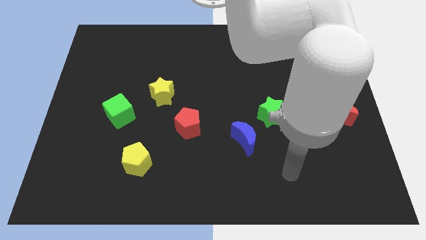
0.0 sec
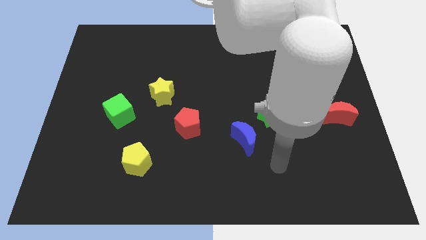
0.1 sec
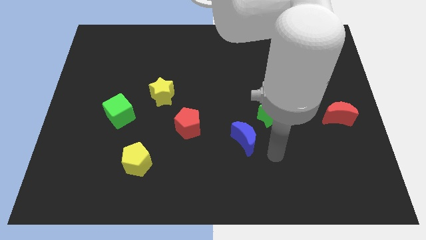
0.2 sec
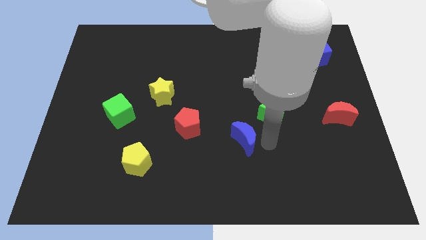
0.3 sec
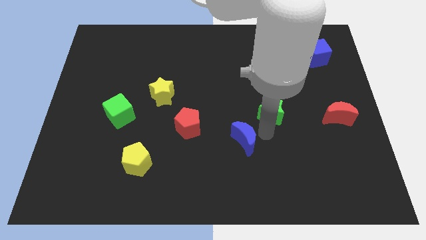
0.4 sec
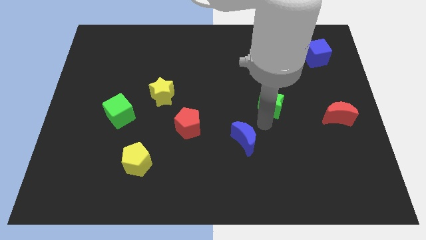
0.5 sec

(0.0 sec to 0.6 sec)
move the blue moon away from the green star

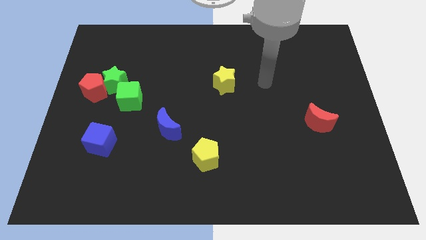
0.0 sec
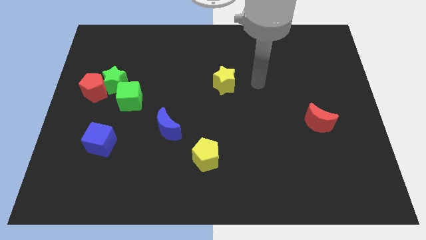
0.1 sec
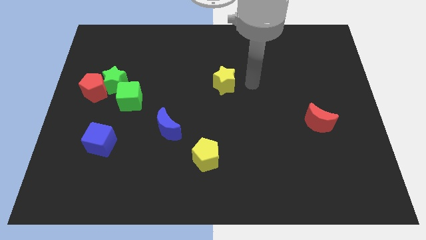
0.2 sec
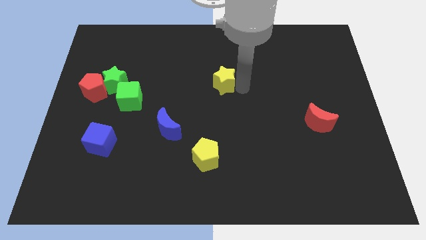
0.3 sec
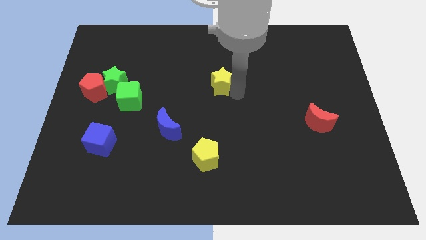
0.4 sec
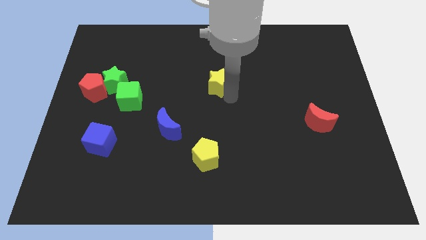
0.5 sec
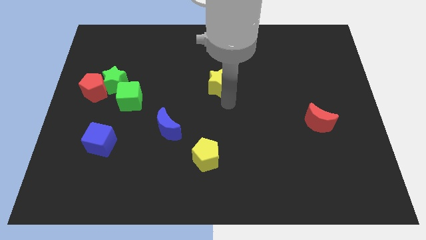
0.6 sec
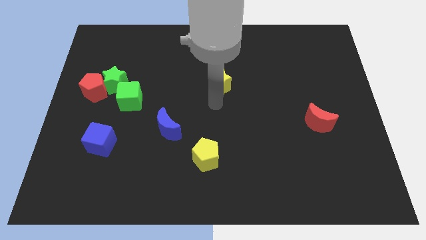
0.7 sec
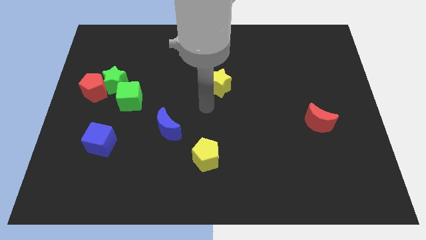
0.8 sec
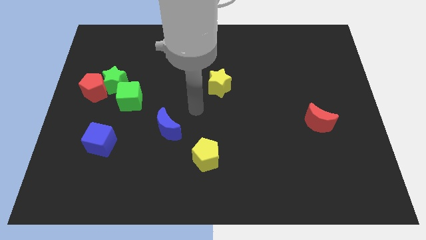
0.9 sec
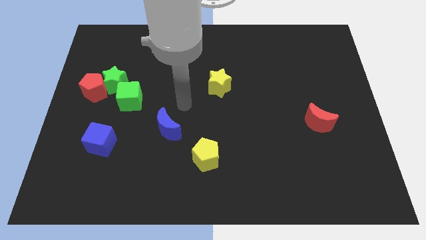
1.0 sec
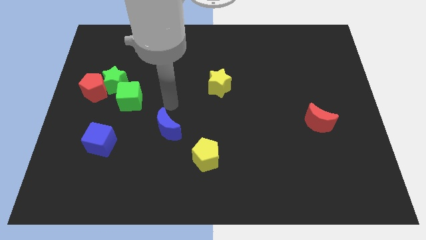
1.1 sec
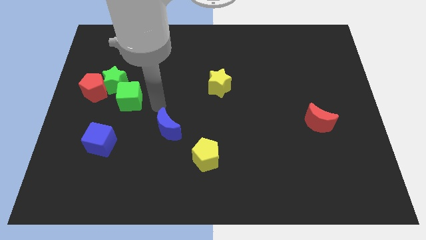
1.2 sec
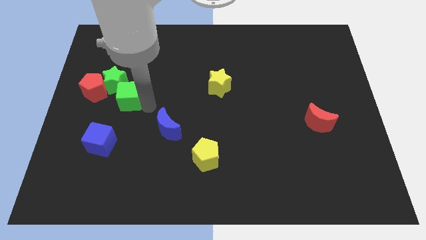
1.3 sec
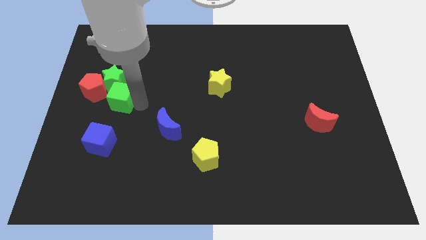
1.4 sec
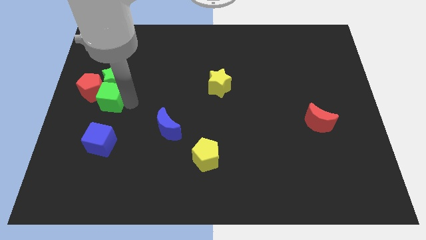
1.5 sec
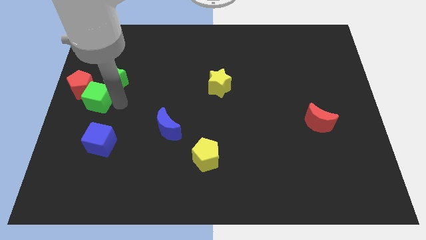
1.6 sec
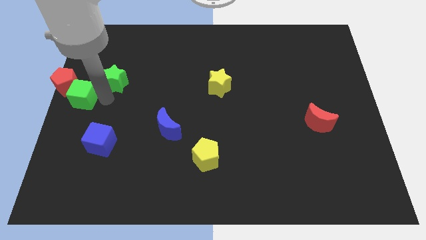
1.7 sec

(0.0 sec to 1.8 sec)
move the green star away from the red pentagon and green cube

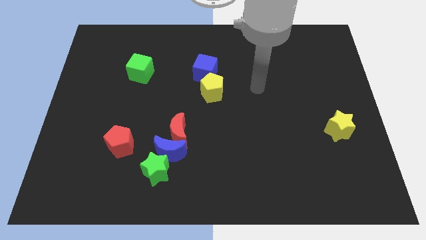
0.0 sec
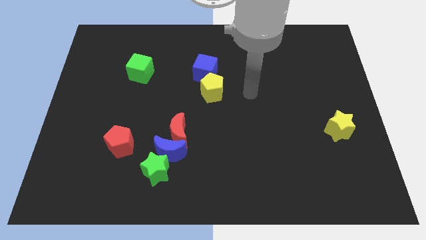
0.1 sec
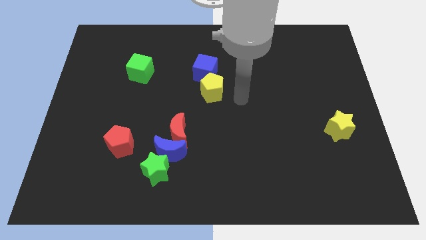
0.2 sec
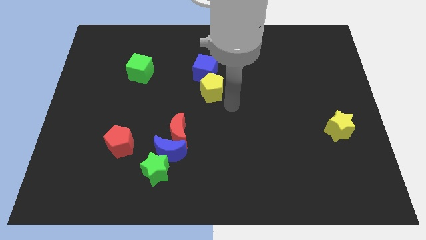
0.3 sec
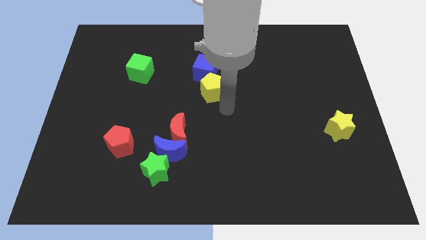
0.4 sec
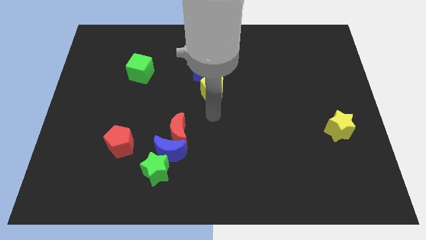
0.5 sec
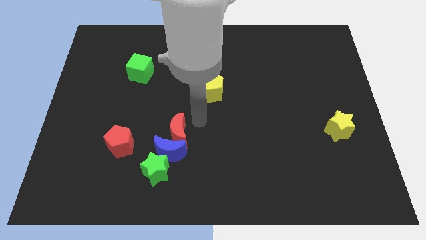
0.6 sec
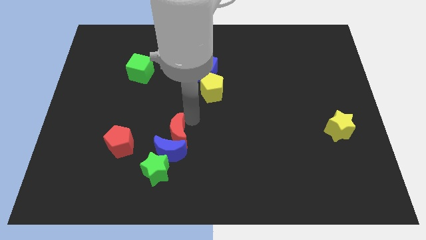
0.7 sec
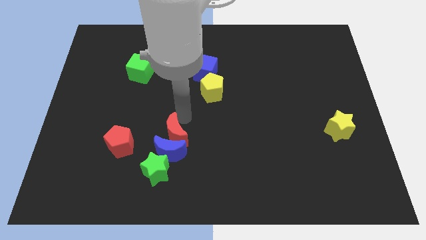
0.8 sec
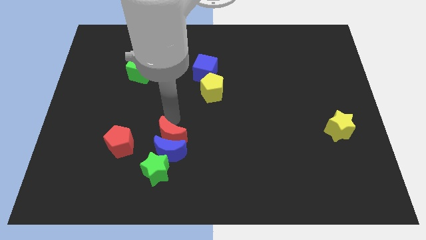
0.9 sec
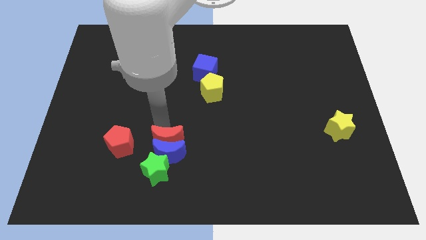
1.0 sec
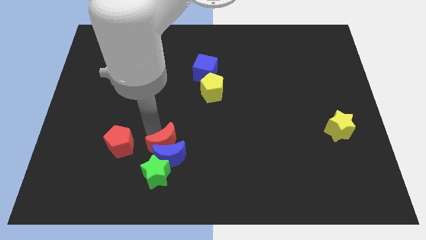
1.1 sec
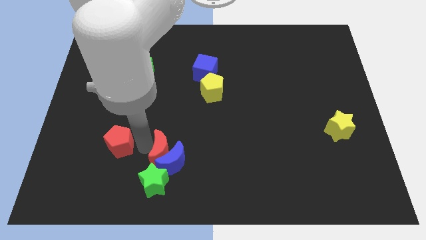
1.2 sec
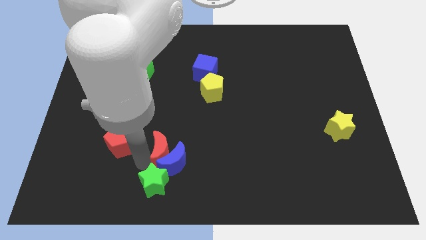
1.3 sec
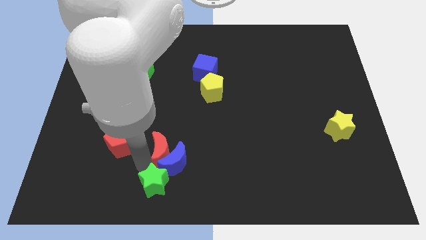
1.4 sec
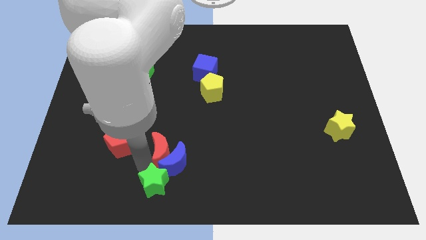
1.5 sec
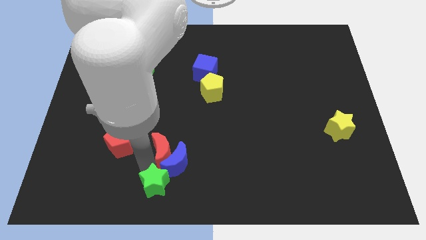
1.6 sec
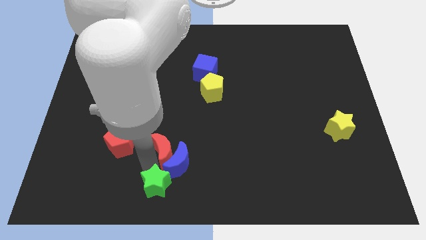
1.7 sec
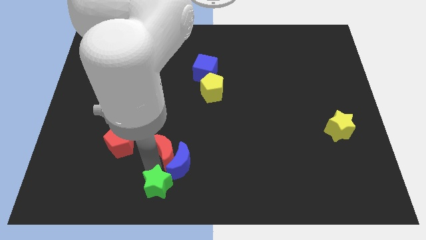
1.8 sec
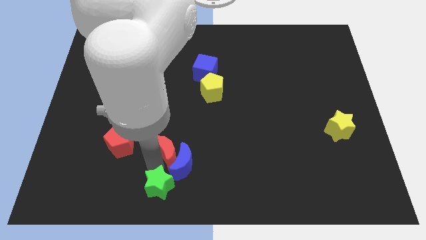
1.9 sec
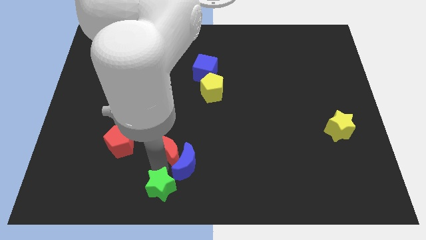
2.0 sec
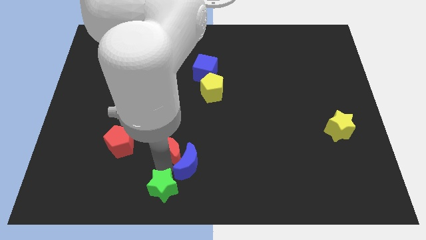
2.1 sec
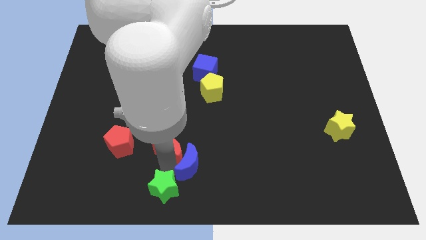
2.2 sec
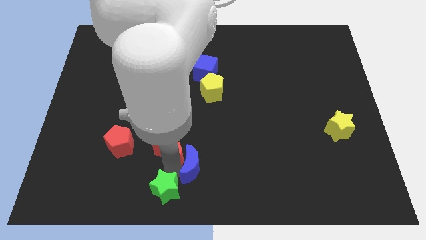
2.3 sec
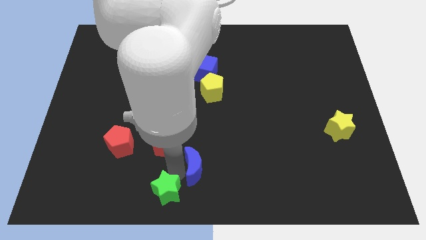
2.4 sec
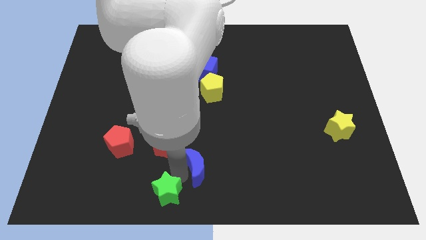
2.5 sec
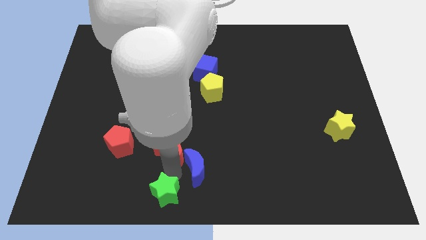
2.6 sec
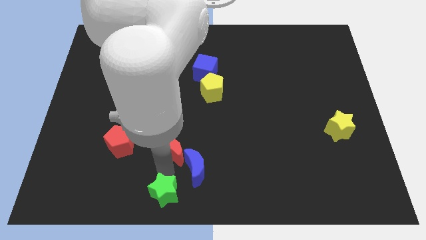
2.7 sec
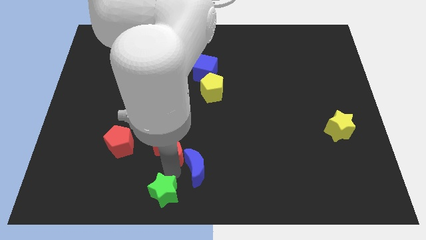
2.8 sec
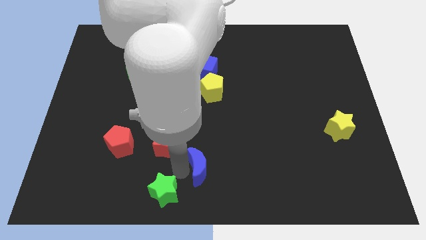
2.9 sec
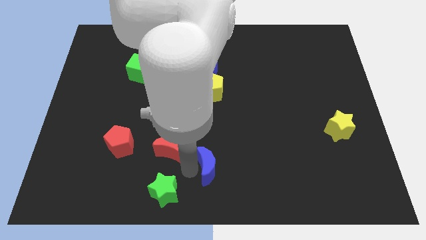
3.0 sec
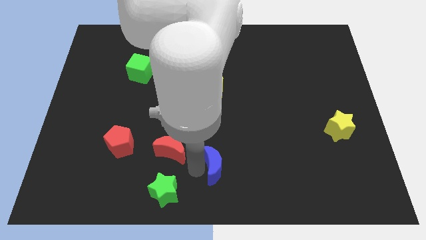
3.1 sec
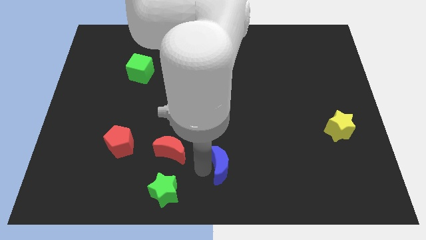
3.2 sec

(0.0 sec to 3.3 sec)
move the blue moon away from the red moon and green star

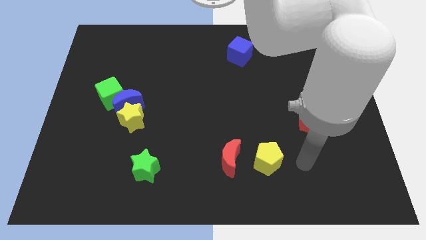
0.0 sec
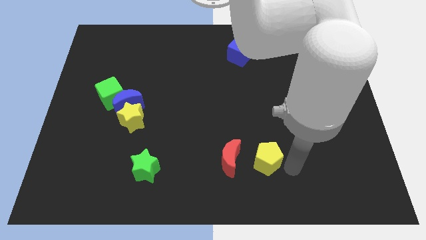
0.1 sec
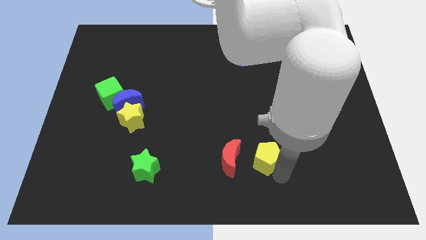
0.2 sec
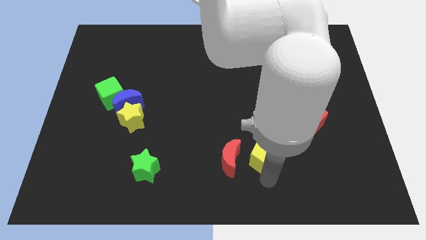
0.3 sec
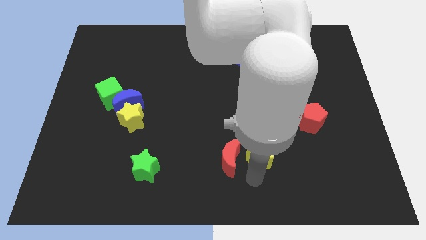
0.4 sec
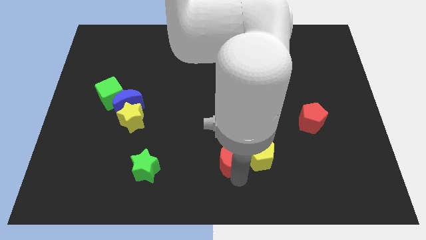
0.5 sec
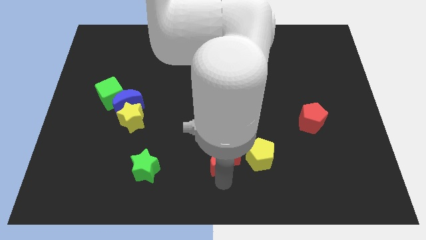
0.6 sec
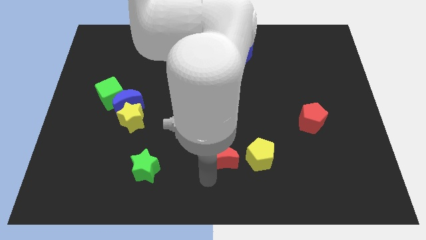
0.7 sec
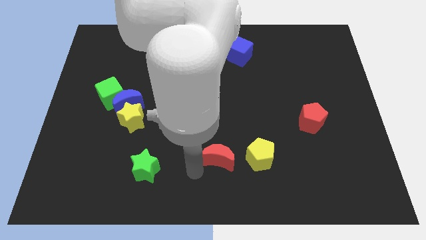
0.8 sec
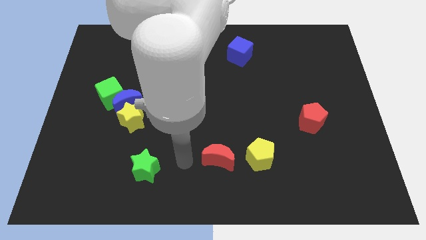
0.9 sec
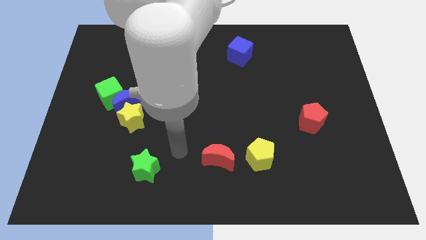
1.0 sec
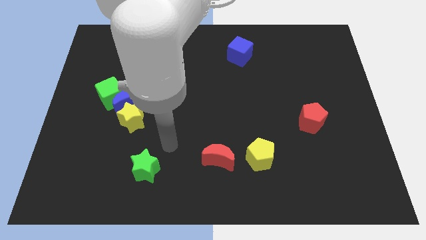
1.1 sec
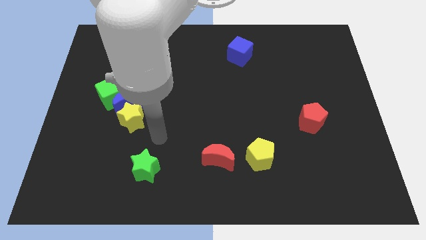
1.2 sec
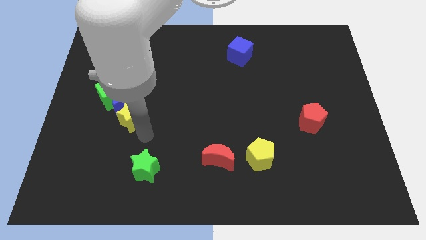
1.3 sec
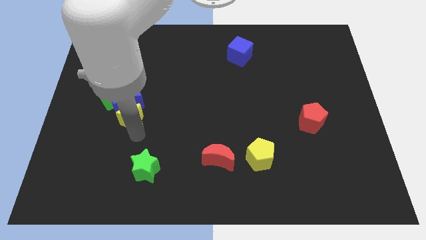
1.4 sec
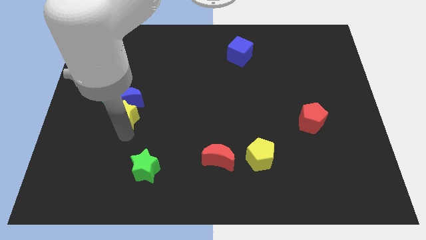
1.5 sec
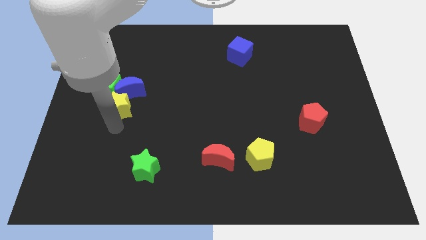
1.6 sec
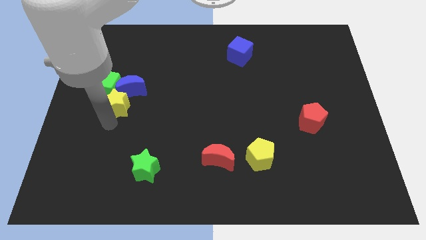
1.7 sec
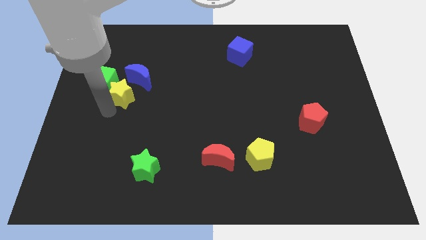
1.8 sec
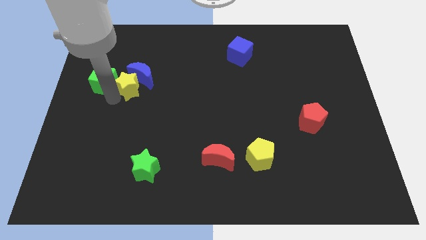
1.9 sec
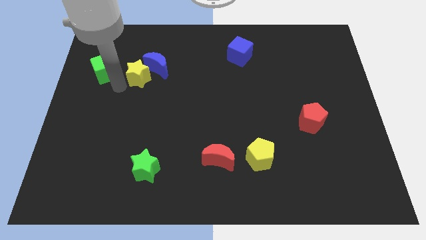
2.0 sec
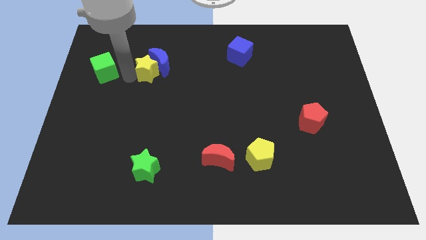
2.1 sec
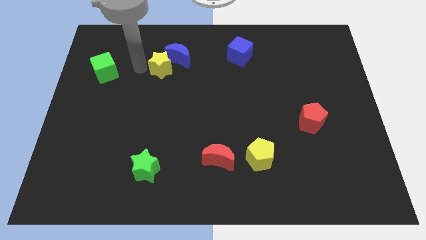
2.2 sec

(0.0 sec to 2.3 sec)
separate the blue moon from the yellow star and green cube

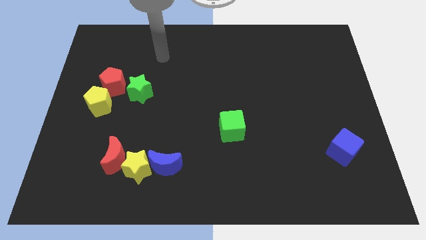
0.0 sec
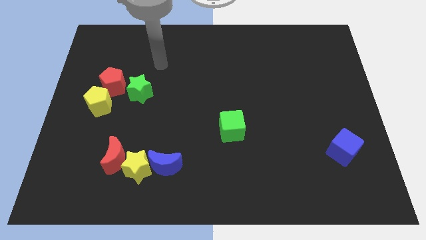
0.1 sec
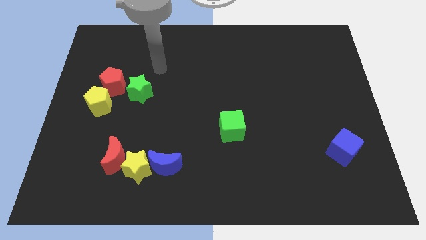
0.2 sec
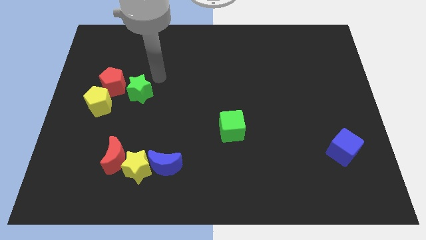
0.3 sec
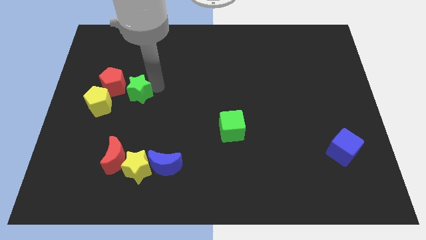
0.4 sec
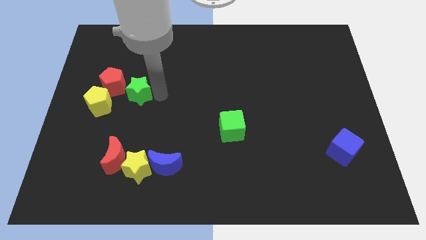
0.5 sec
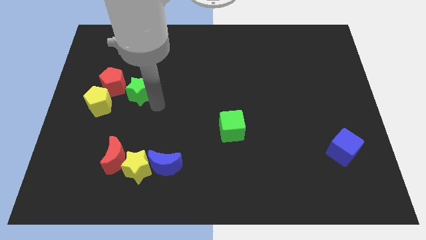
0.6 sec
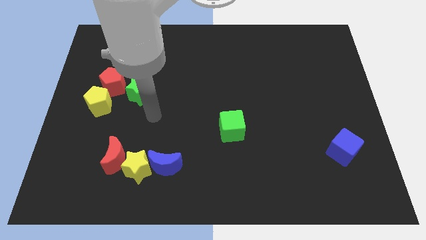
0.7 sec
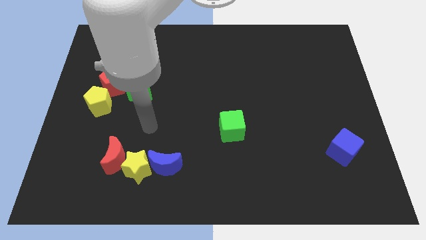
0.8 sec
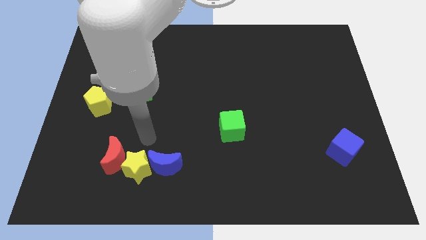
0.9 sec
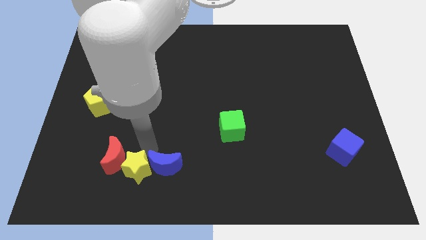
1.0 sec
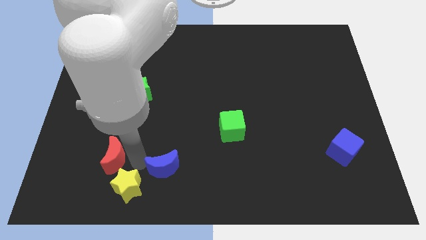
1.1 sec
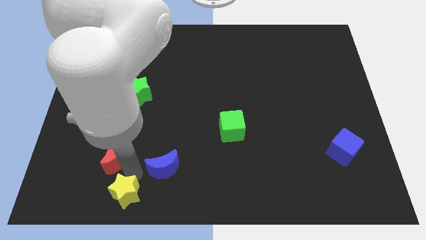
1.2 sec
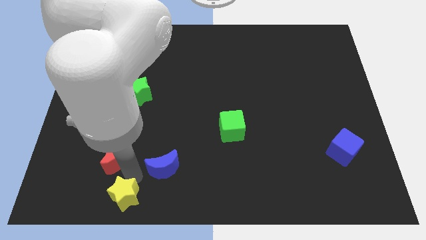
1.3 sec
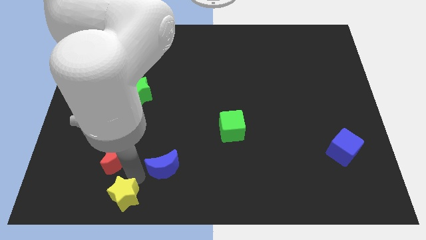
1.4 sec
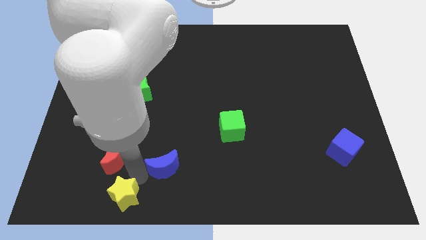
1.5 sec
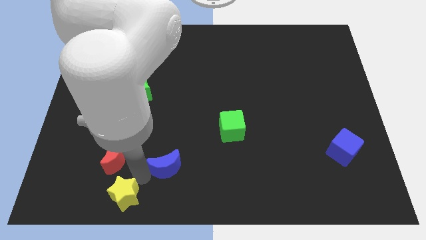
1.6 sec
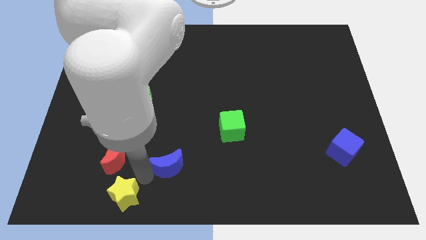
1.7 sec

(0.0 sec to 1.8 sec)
separate the blue moon from the yellow star
